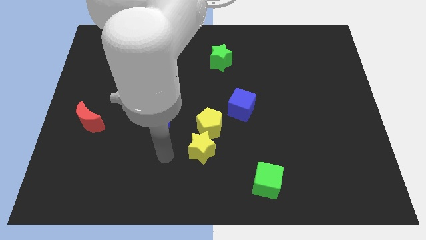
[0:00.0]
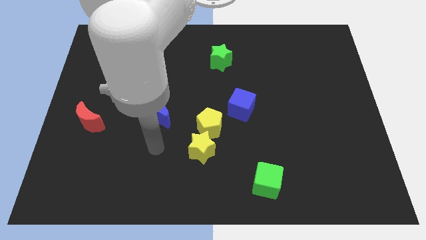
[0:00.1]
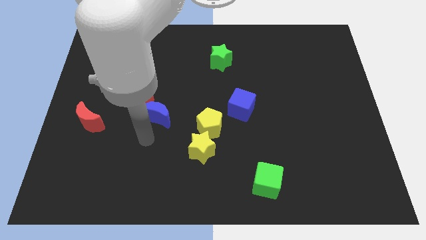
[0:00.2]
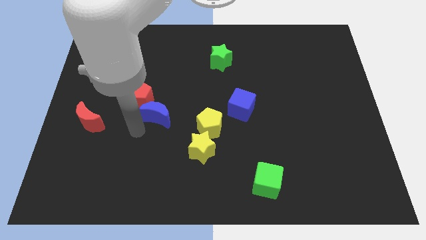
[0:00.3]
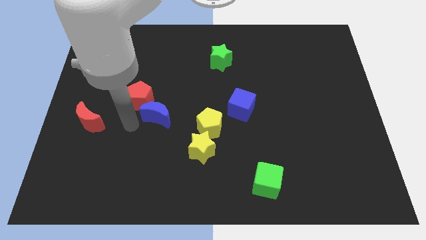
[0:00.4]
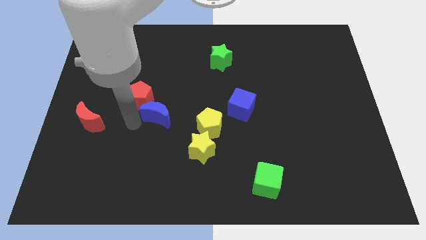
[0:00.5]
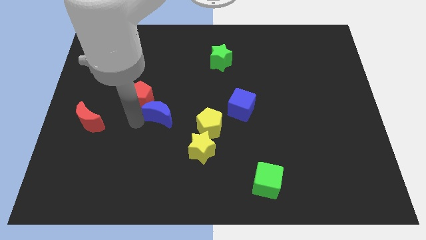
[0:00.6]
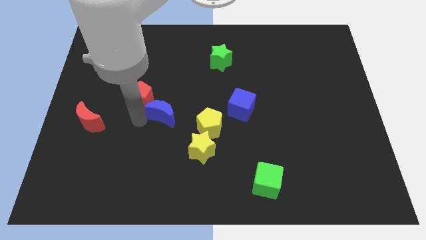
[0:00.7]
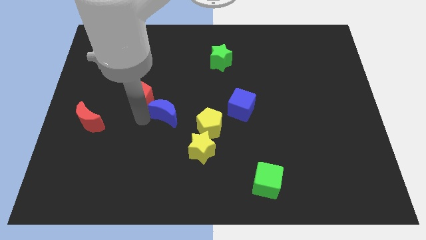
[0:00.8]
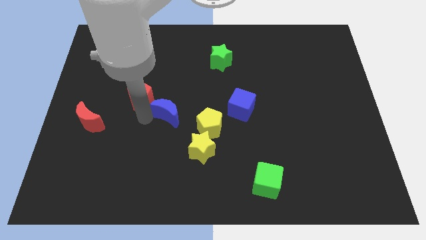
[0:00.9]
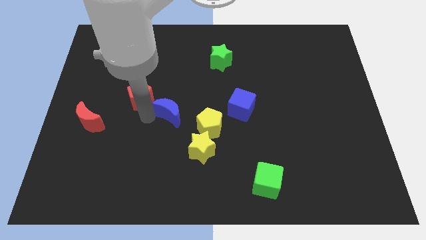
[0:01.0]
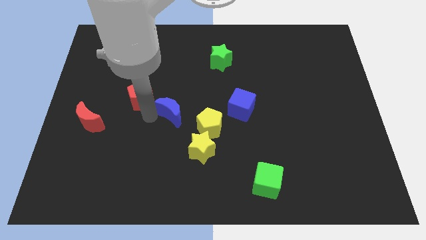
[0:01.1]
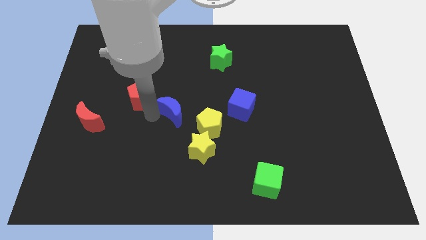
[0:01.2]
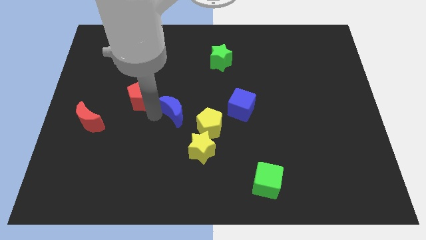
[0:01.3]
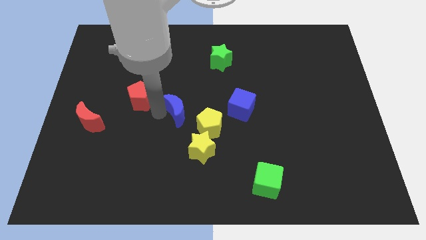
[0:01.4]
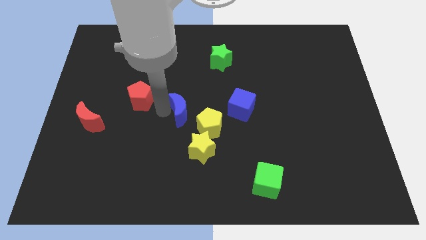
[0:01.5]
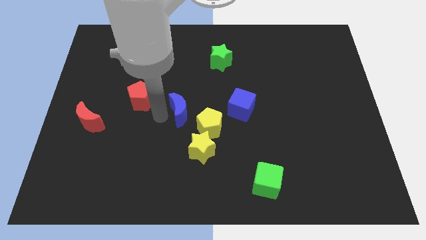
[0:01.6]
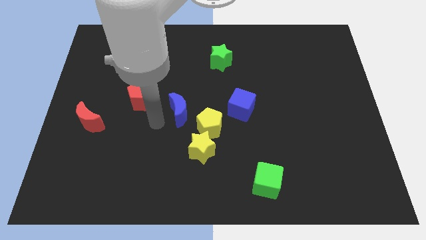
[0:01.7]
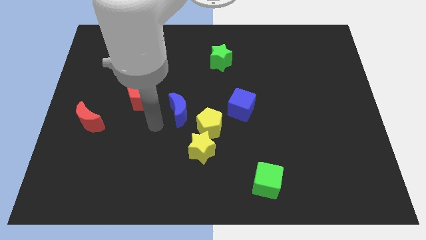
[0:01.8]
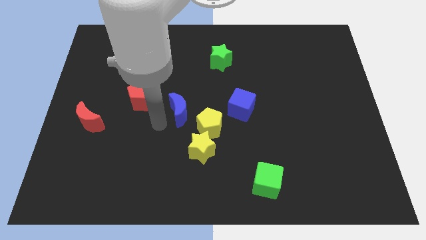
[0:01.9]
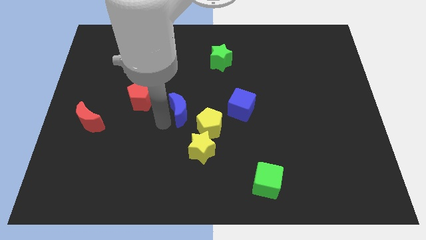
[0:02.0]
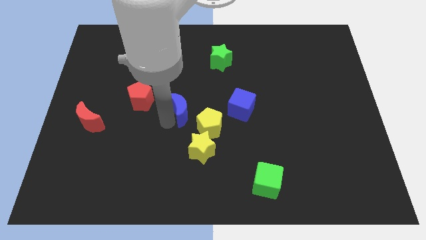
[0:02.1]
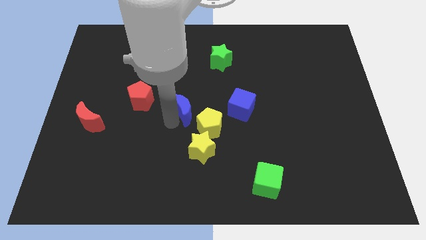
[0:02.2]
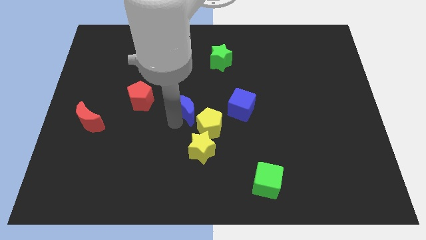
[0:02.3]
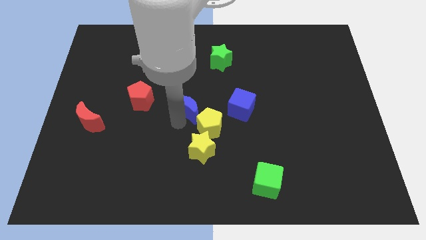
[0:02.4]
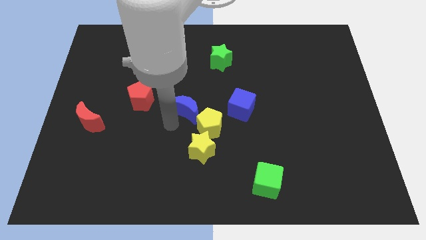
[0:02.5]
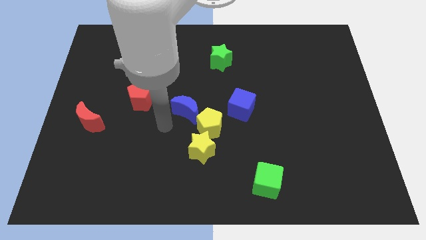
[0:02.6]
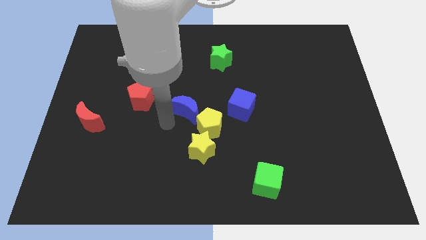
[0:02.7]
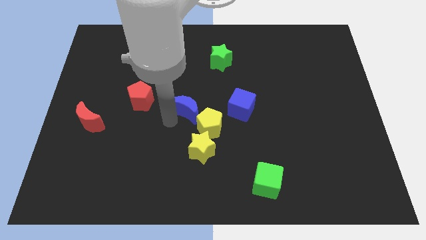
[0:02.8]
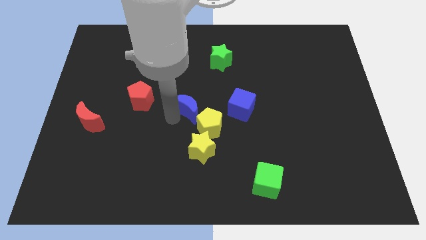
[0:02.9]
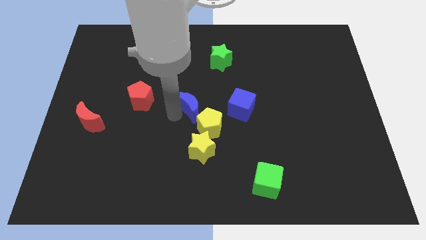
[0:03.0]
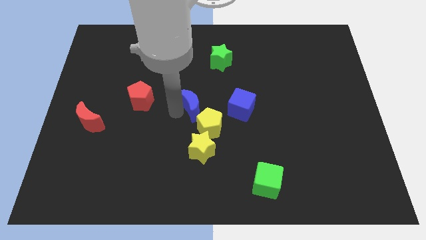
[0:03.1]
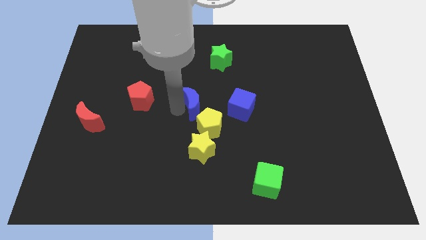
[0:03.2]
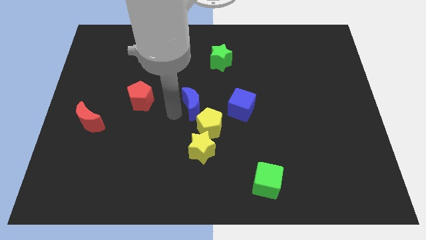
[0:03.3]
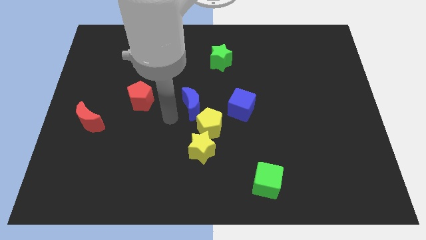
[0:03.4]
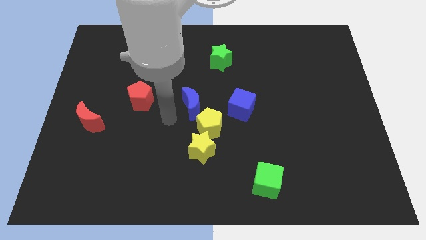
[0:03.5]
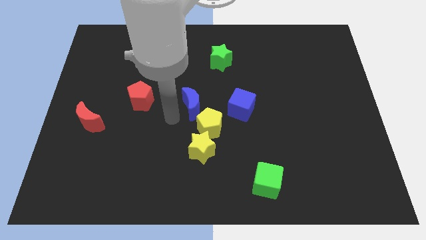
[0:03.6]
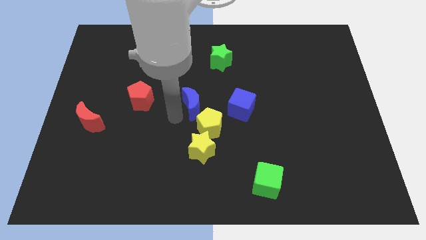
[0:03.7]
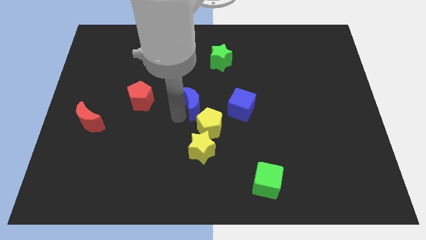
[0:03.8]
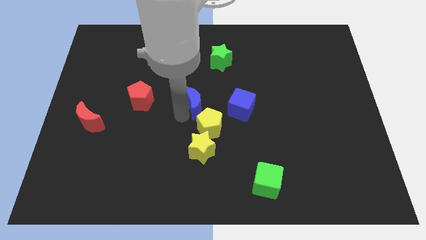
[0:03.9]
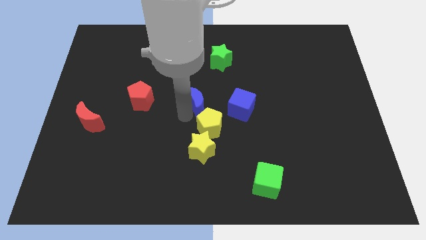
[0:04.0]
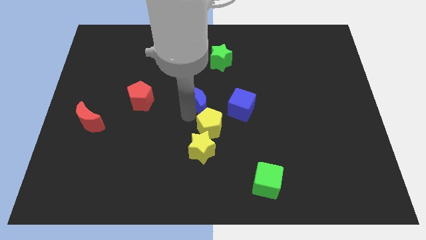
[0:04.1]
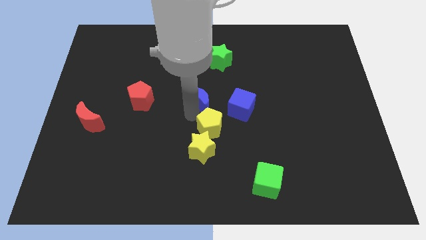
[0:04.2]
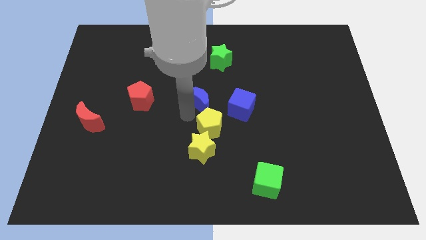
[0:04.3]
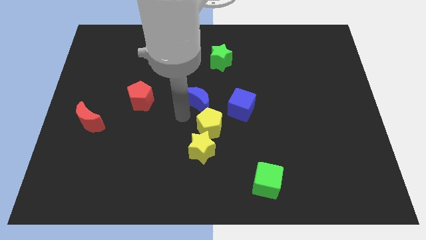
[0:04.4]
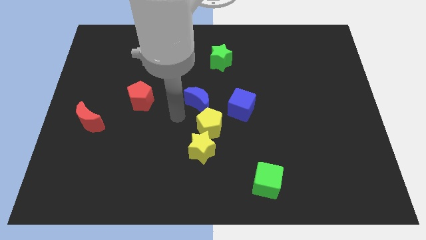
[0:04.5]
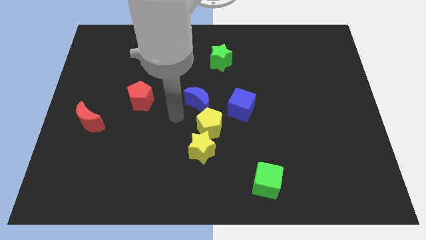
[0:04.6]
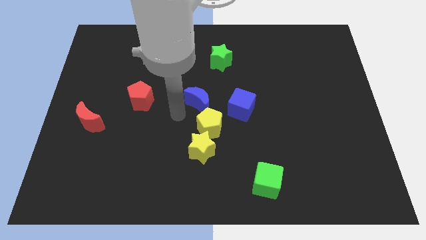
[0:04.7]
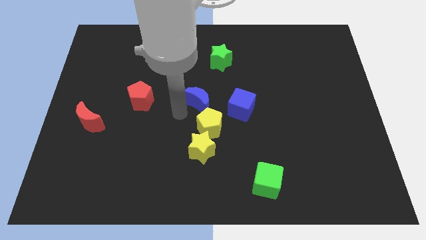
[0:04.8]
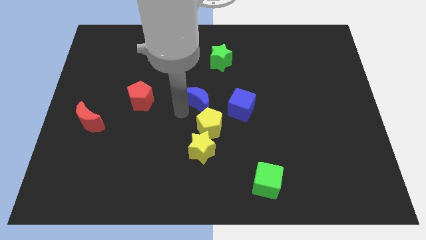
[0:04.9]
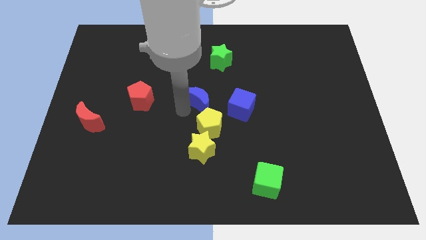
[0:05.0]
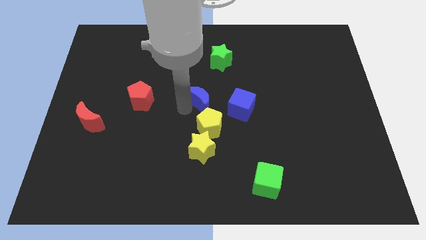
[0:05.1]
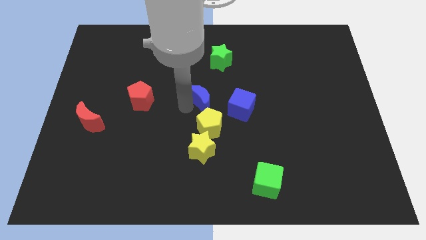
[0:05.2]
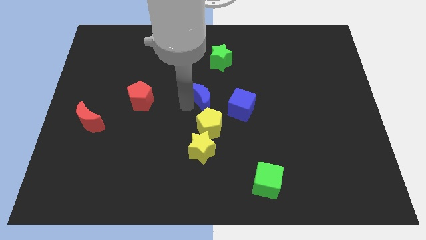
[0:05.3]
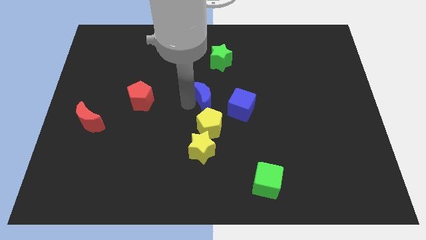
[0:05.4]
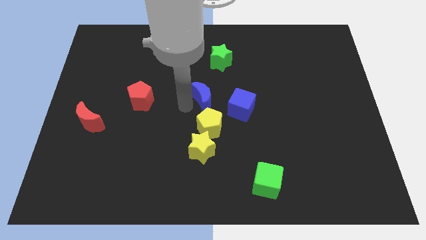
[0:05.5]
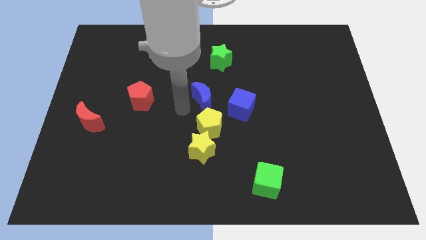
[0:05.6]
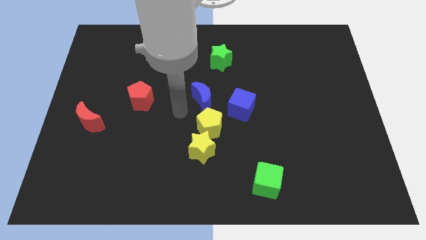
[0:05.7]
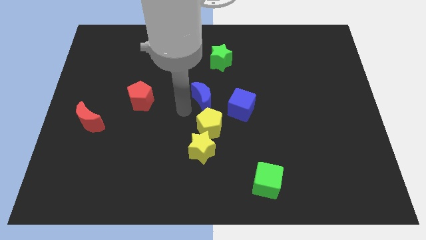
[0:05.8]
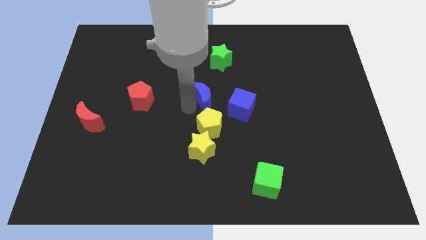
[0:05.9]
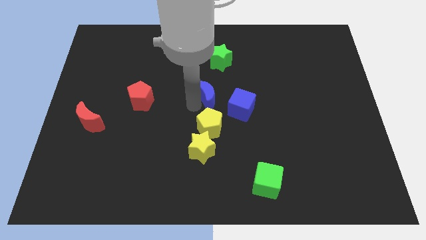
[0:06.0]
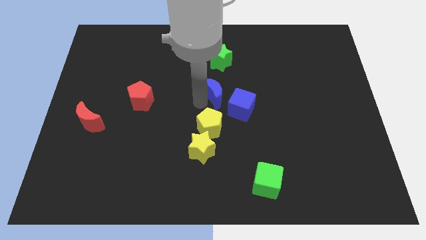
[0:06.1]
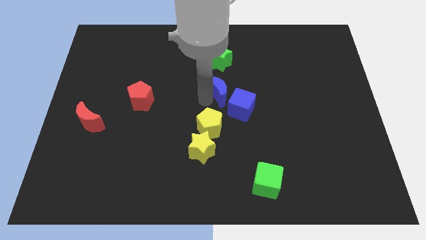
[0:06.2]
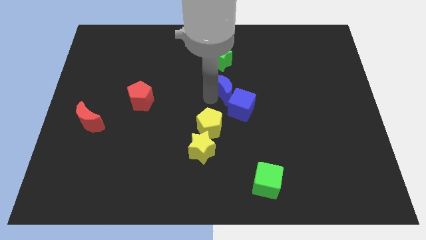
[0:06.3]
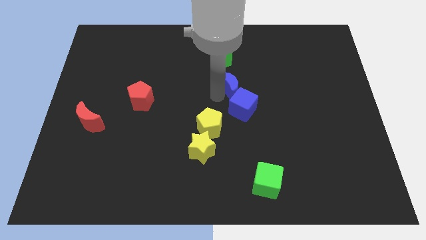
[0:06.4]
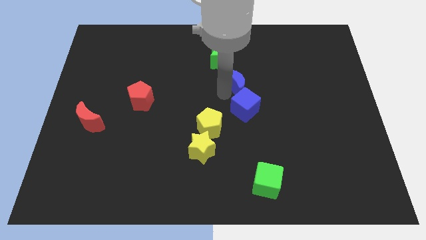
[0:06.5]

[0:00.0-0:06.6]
push the blue moon to the bottom right side of the green star

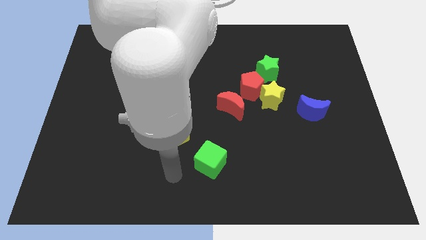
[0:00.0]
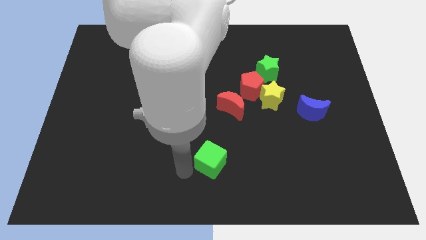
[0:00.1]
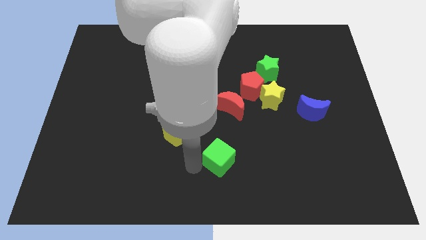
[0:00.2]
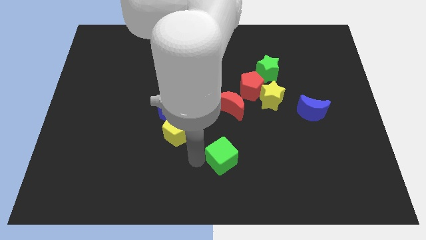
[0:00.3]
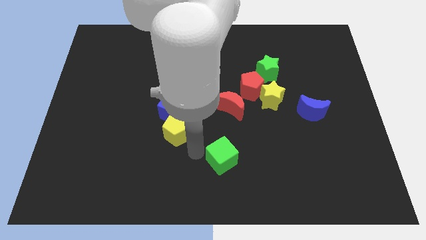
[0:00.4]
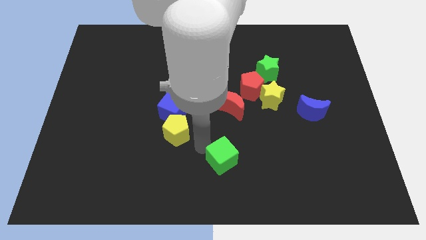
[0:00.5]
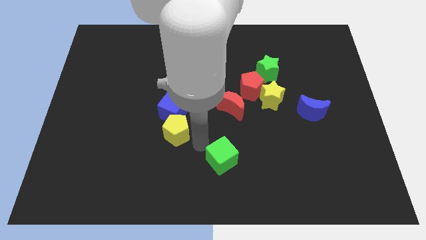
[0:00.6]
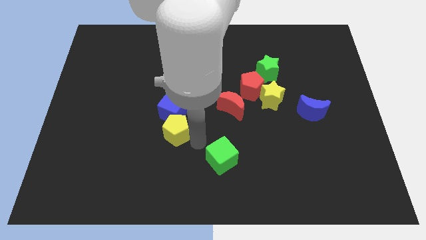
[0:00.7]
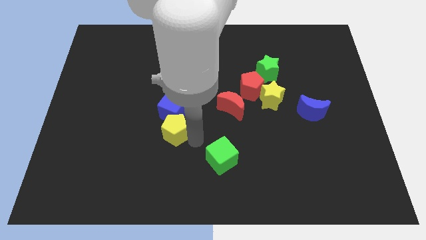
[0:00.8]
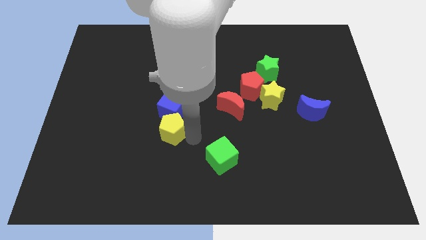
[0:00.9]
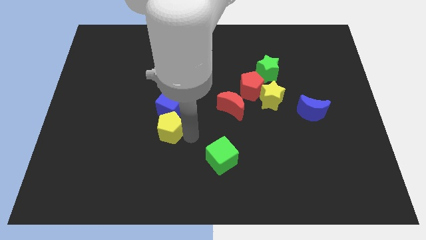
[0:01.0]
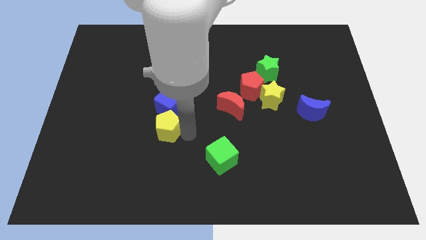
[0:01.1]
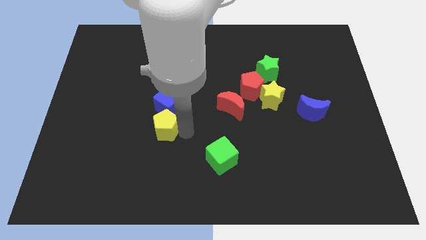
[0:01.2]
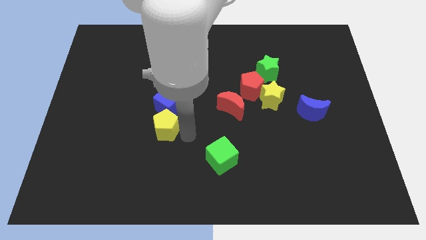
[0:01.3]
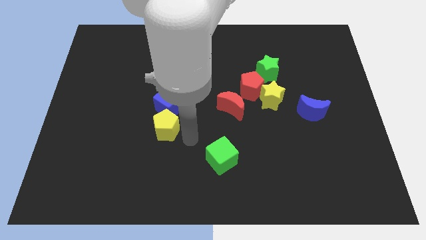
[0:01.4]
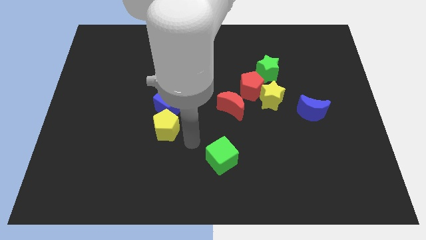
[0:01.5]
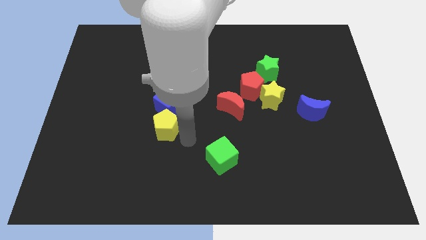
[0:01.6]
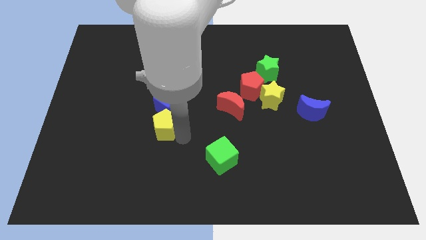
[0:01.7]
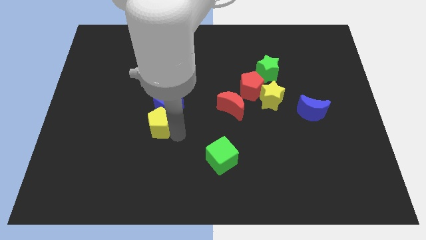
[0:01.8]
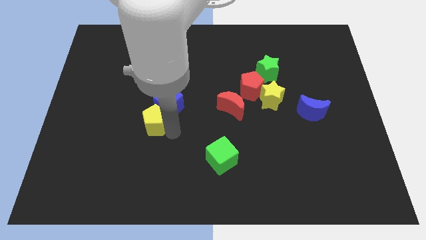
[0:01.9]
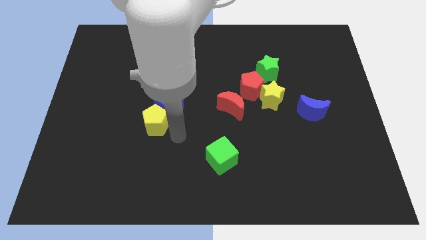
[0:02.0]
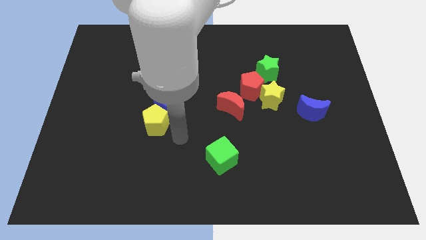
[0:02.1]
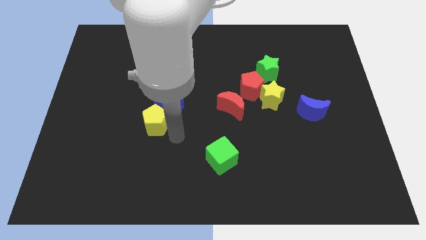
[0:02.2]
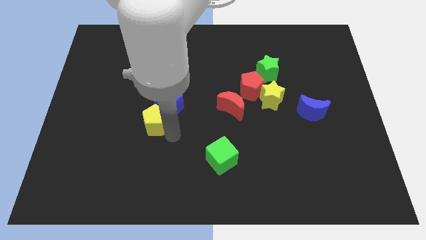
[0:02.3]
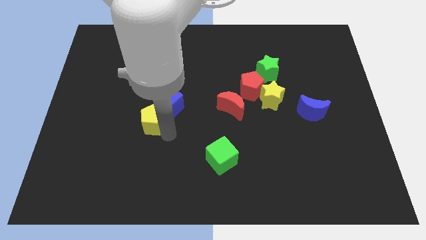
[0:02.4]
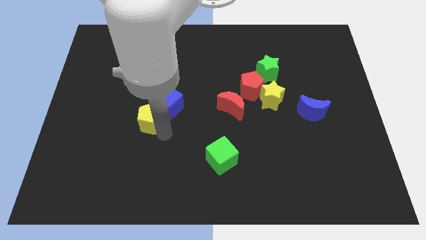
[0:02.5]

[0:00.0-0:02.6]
move the yellow pentagon left of the blue cube
